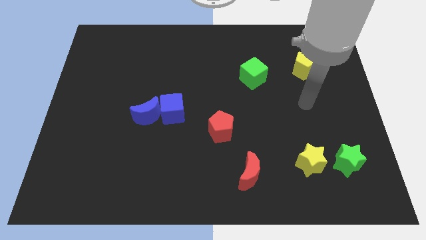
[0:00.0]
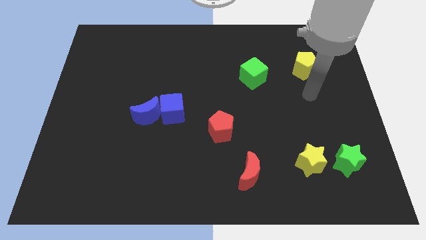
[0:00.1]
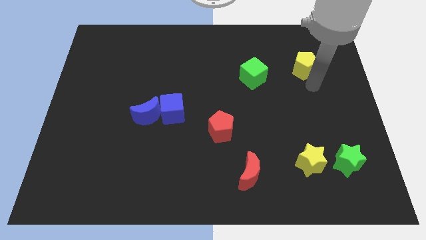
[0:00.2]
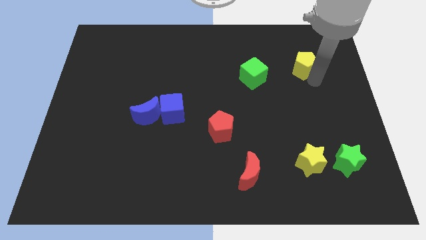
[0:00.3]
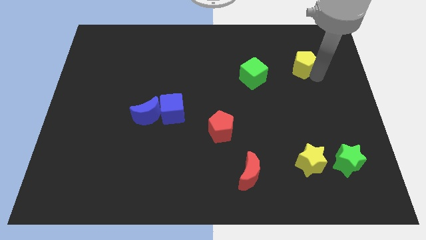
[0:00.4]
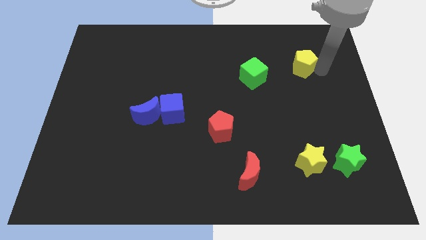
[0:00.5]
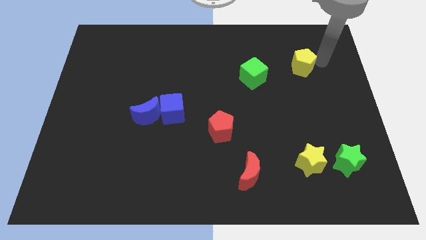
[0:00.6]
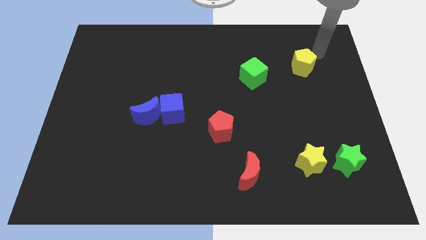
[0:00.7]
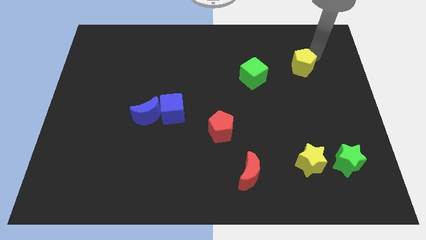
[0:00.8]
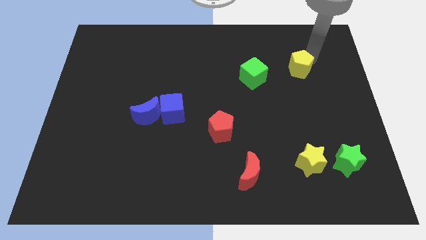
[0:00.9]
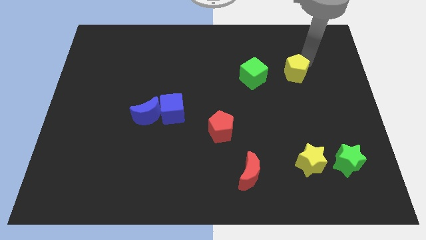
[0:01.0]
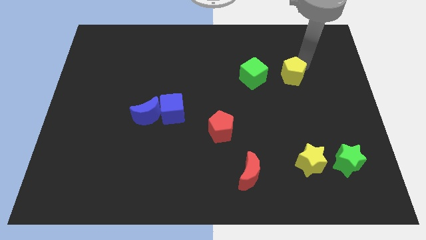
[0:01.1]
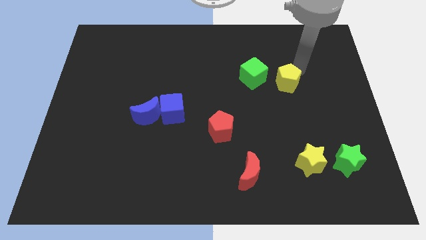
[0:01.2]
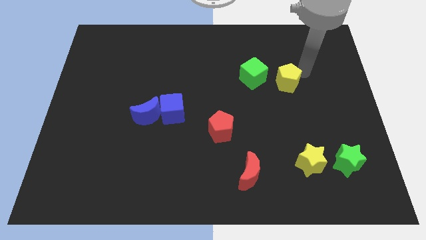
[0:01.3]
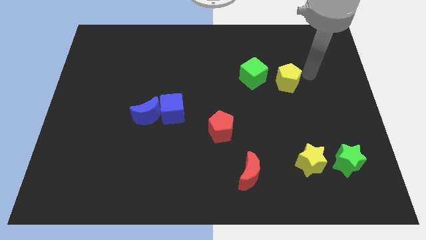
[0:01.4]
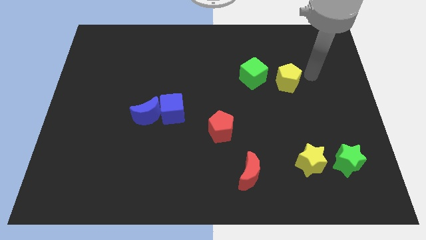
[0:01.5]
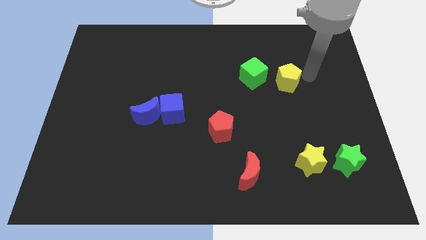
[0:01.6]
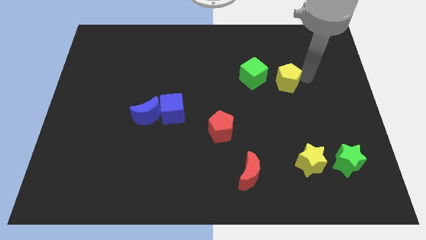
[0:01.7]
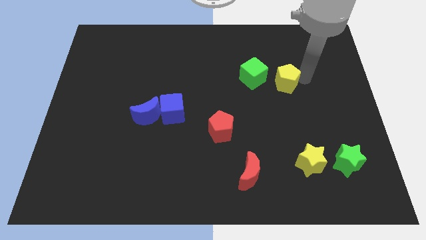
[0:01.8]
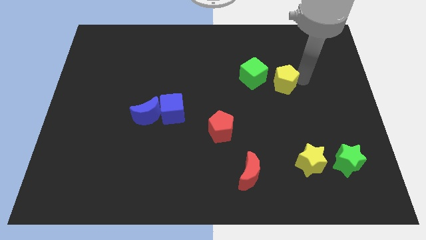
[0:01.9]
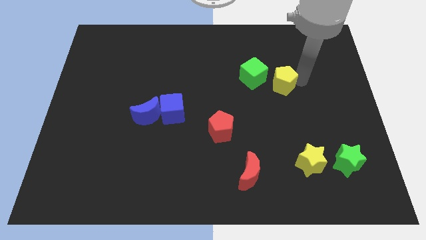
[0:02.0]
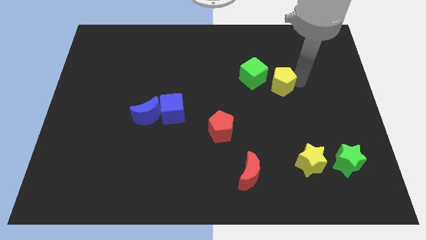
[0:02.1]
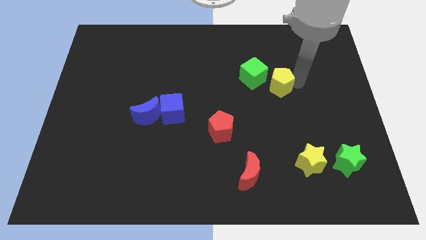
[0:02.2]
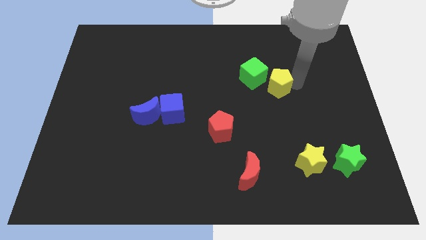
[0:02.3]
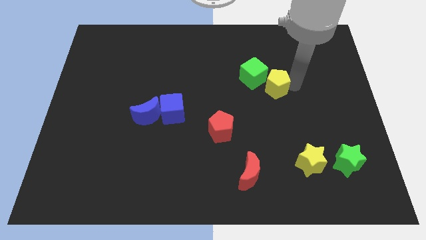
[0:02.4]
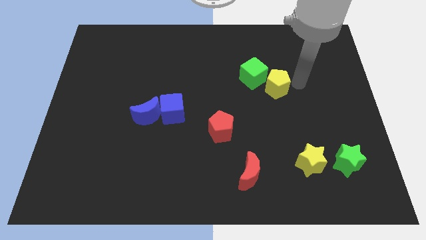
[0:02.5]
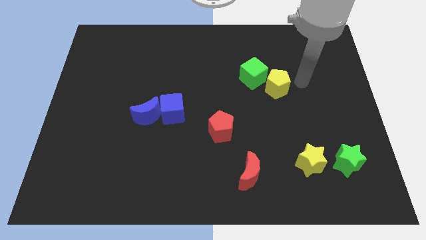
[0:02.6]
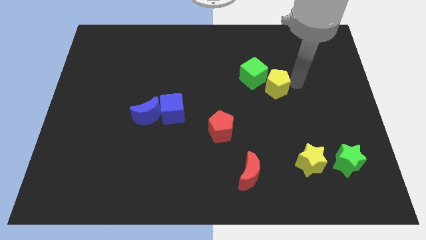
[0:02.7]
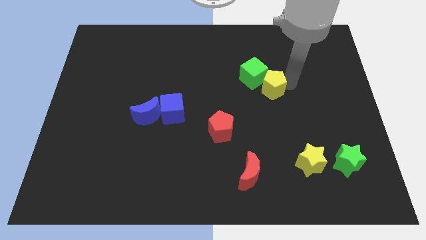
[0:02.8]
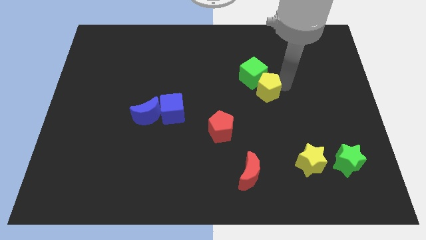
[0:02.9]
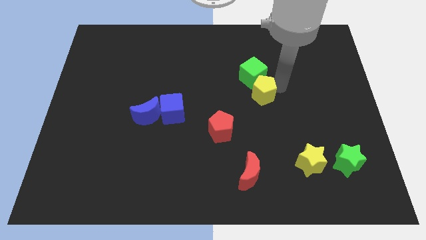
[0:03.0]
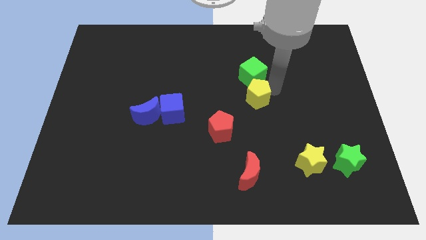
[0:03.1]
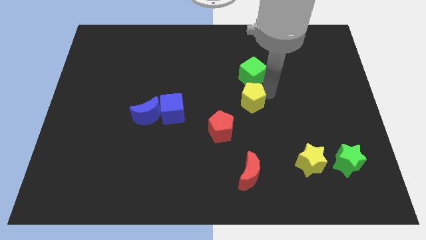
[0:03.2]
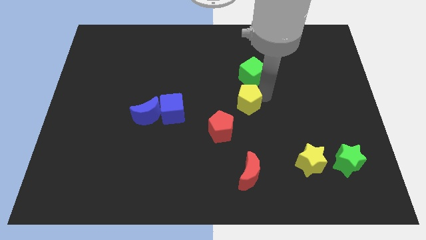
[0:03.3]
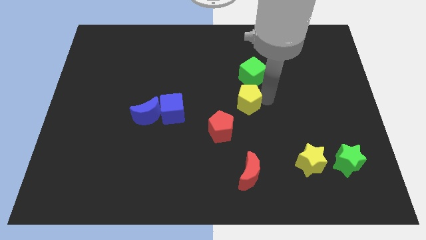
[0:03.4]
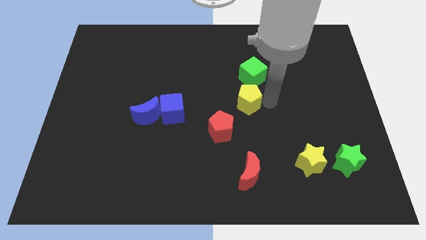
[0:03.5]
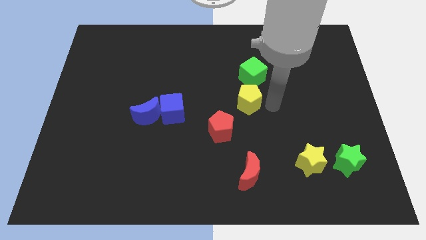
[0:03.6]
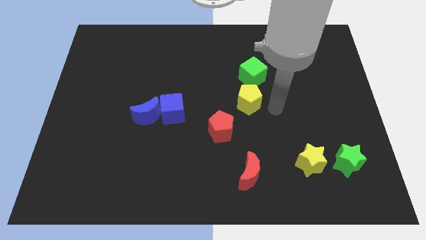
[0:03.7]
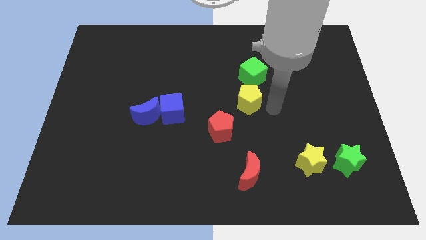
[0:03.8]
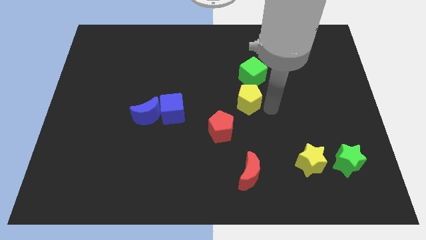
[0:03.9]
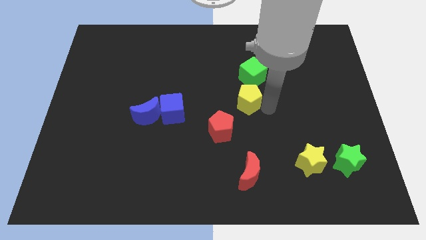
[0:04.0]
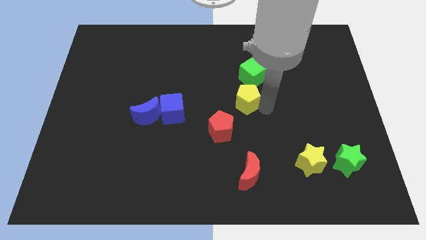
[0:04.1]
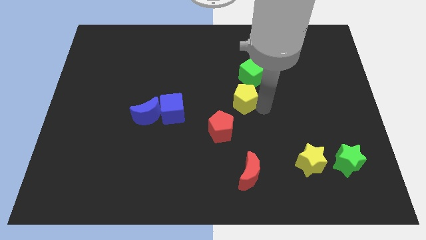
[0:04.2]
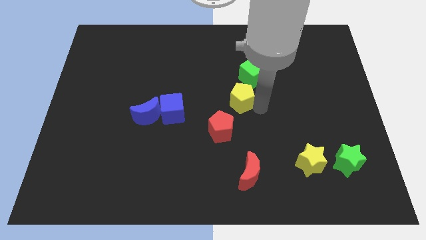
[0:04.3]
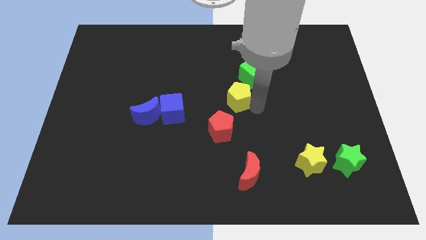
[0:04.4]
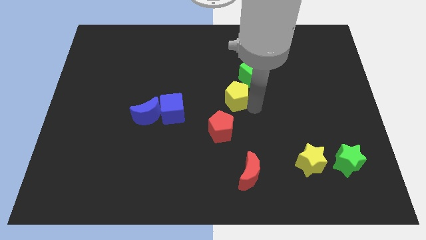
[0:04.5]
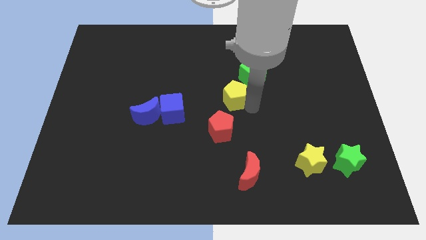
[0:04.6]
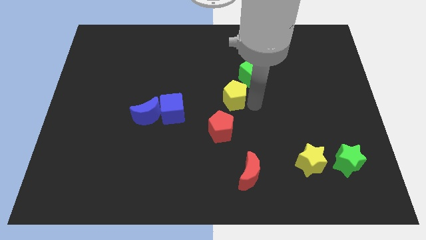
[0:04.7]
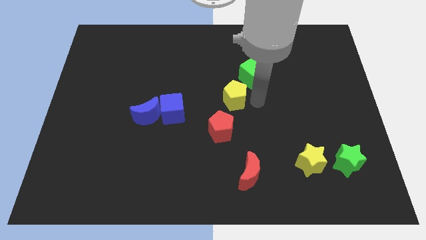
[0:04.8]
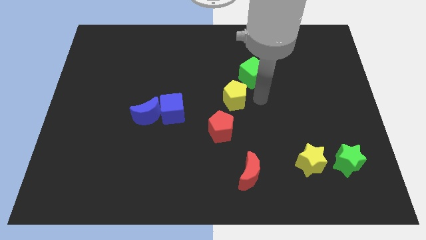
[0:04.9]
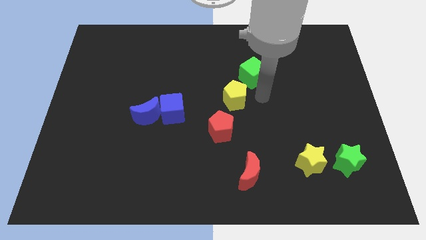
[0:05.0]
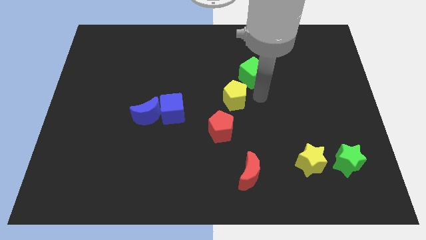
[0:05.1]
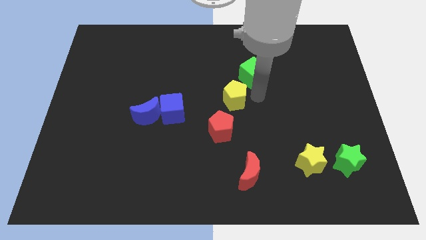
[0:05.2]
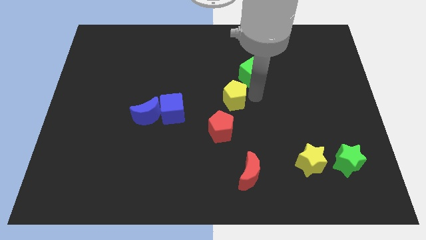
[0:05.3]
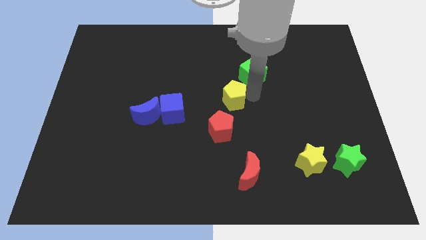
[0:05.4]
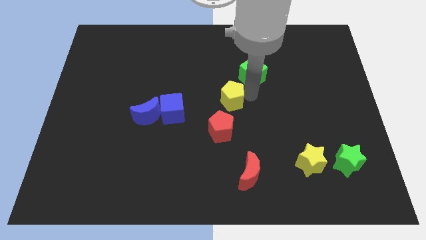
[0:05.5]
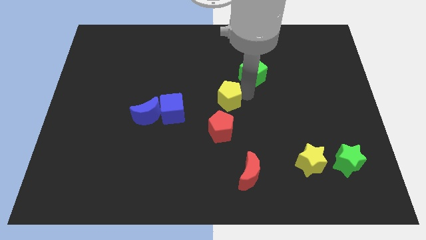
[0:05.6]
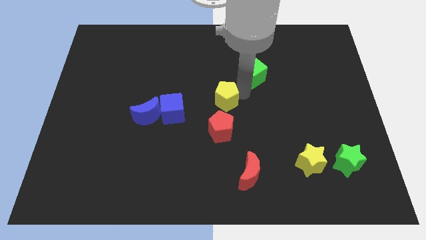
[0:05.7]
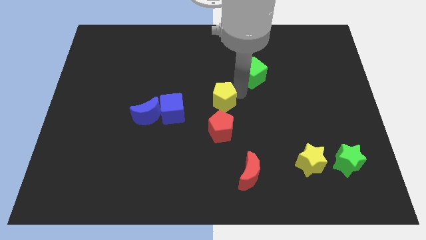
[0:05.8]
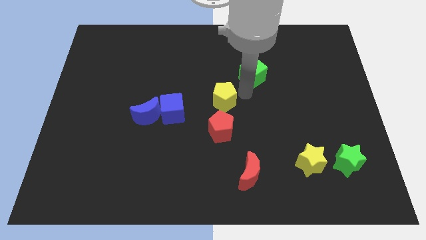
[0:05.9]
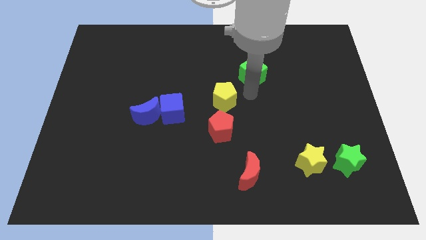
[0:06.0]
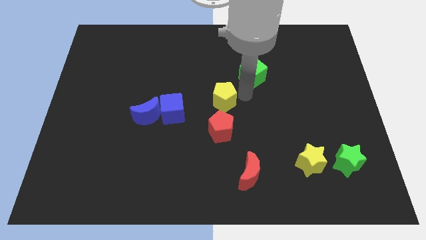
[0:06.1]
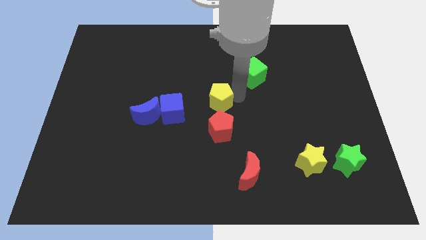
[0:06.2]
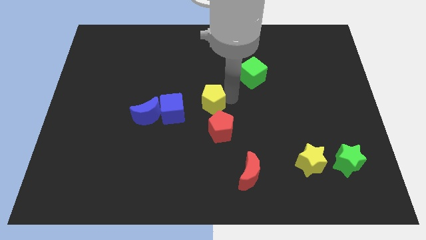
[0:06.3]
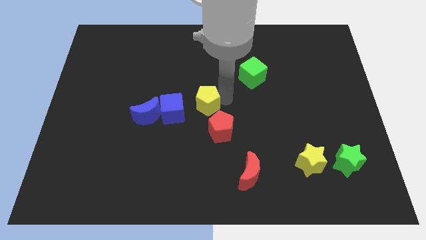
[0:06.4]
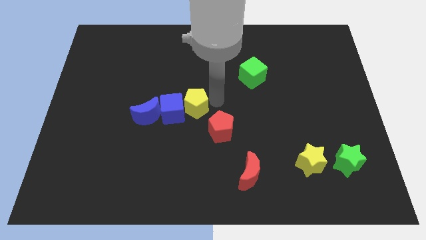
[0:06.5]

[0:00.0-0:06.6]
slide the yellow pentagon to the blue cube
